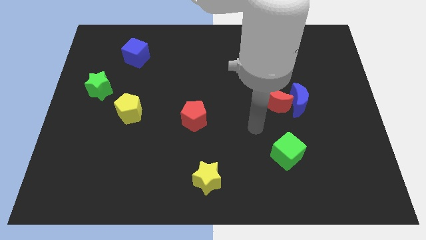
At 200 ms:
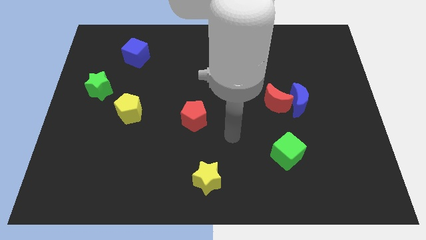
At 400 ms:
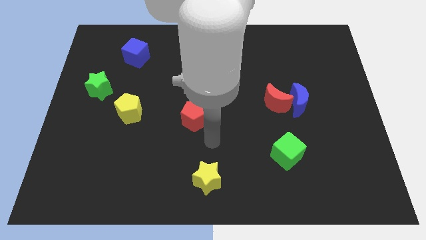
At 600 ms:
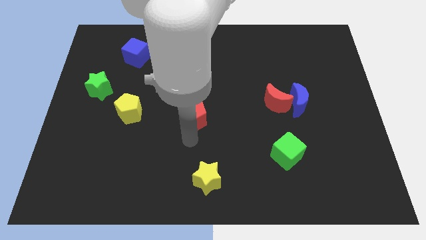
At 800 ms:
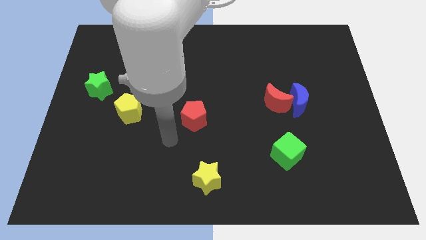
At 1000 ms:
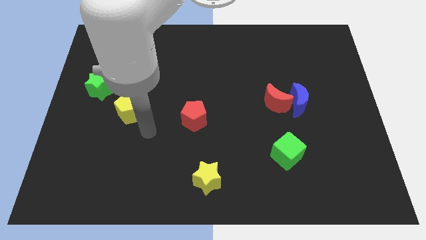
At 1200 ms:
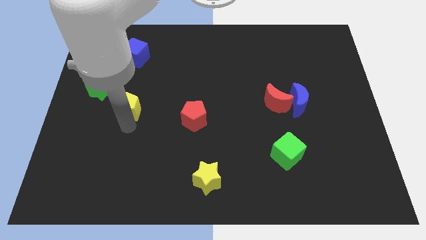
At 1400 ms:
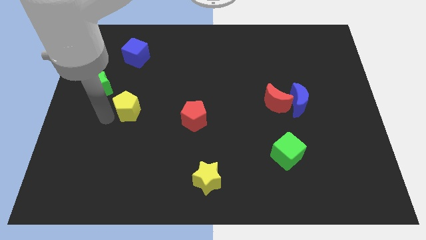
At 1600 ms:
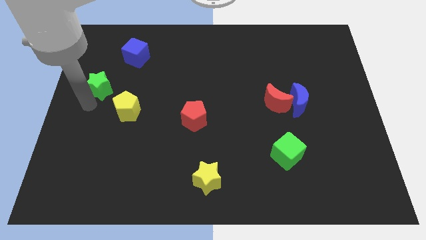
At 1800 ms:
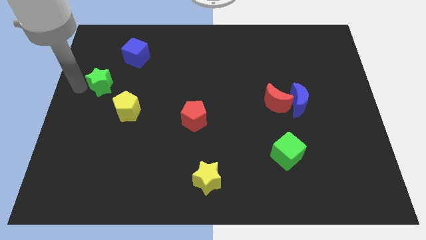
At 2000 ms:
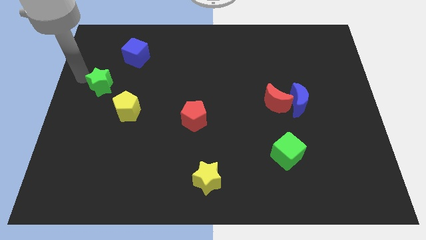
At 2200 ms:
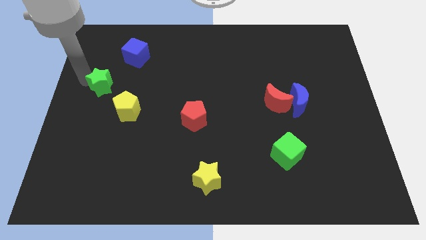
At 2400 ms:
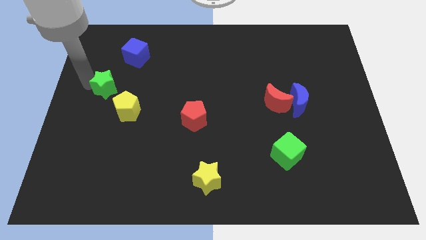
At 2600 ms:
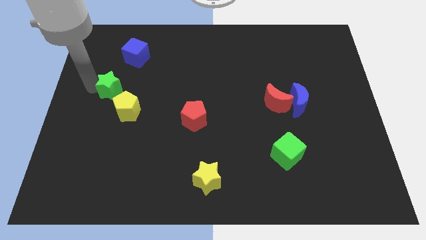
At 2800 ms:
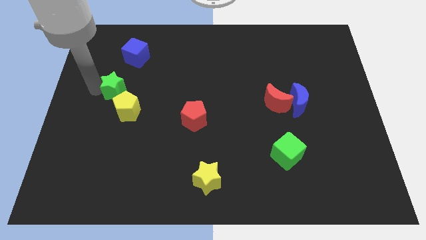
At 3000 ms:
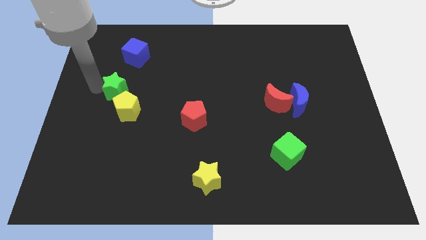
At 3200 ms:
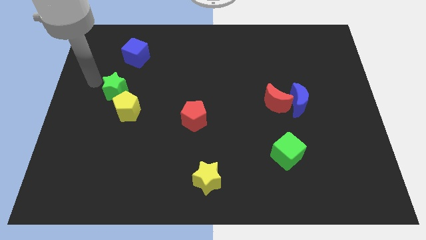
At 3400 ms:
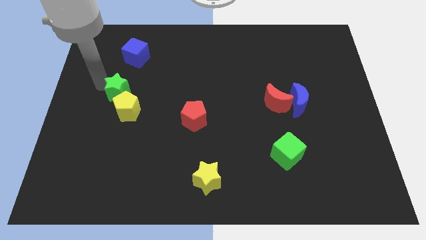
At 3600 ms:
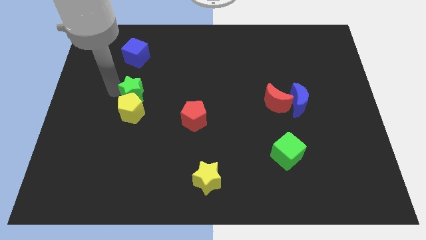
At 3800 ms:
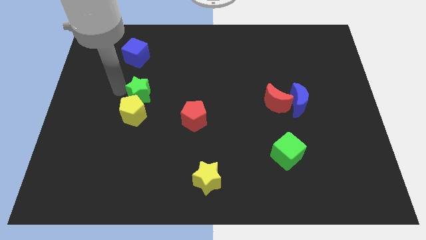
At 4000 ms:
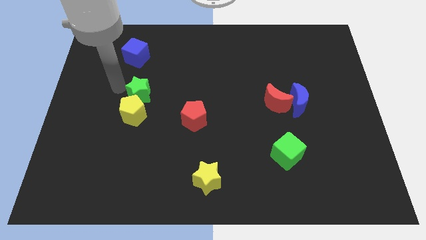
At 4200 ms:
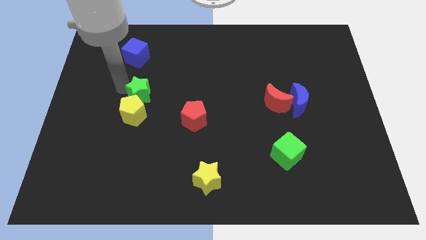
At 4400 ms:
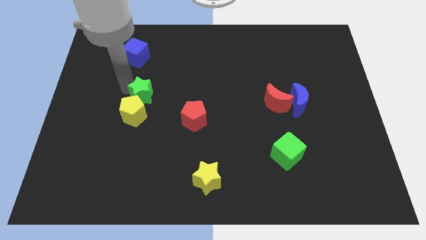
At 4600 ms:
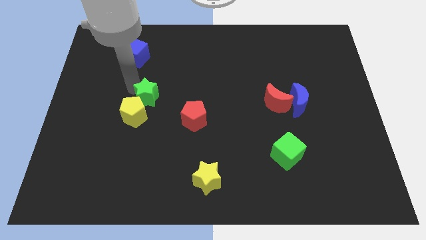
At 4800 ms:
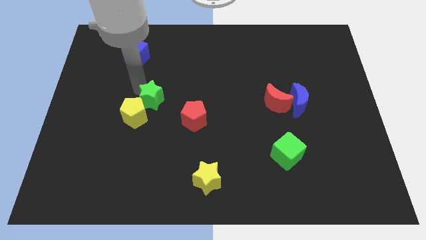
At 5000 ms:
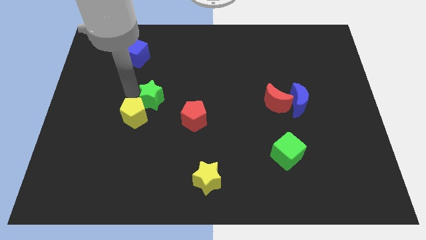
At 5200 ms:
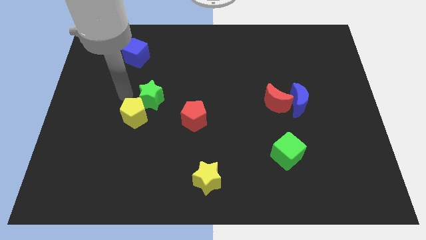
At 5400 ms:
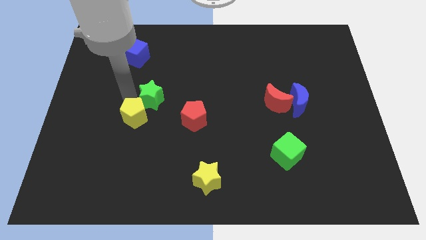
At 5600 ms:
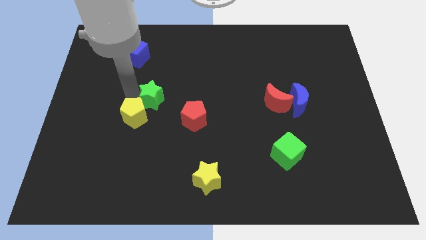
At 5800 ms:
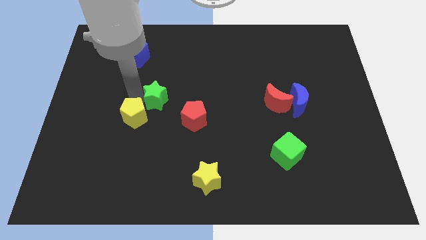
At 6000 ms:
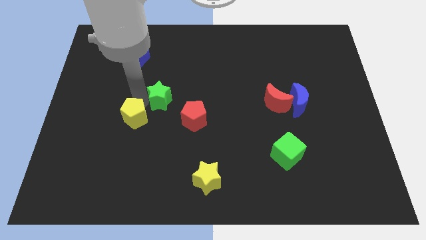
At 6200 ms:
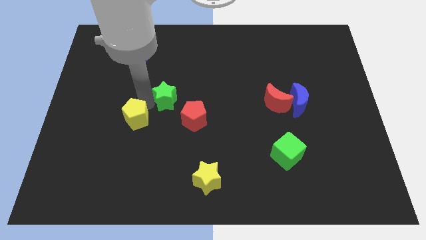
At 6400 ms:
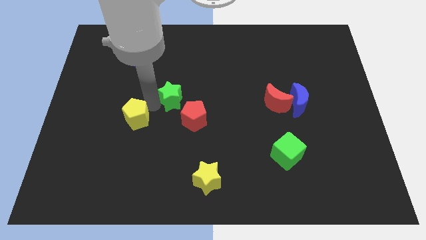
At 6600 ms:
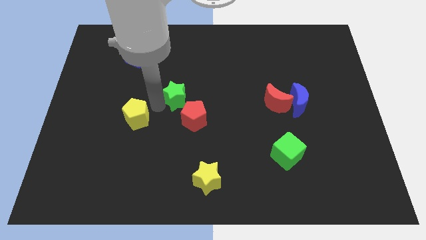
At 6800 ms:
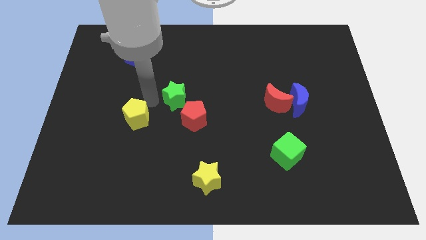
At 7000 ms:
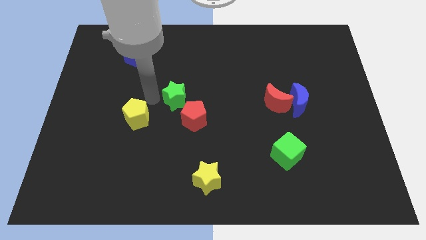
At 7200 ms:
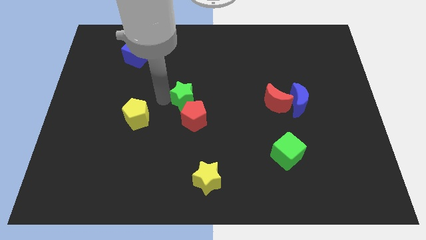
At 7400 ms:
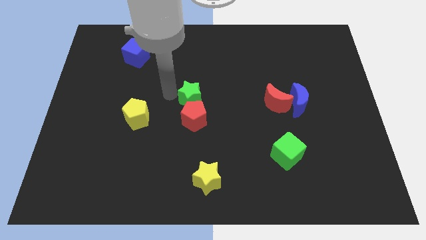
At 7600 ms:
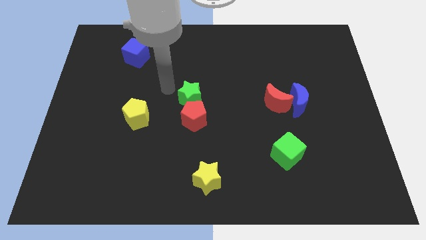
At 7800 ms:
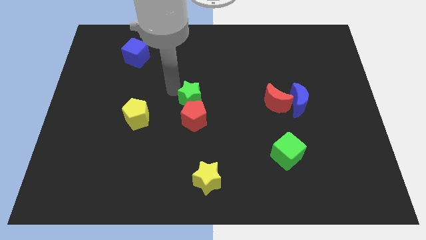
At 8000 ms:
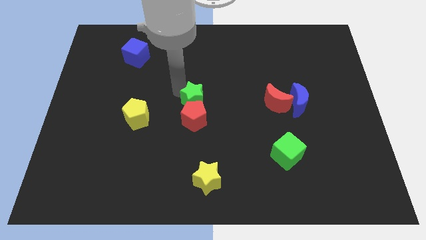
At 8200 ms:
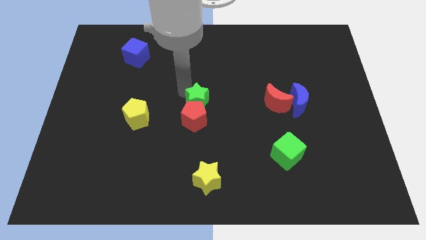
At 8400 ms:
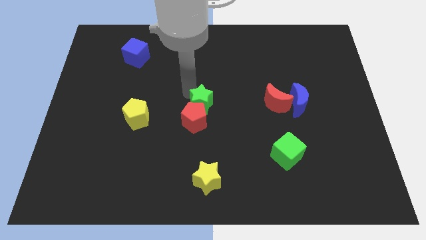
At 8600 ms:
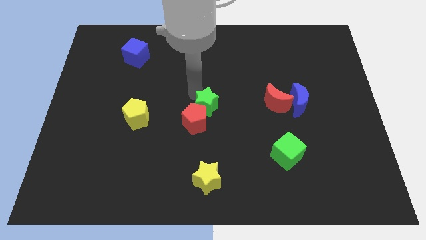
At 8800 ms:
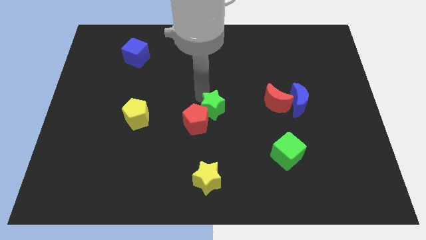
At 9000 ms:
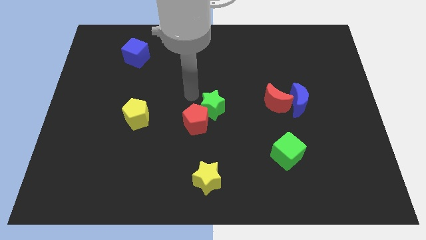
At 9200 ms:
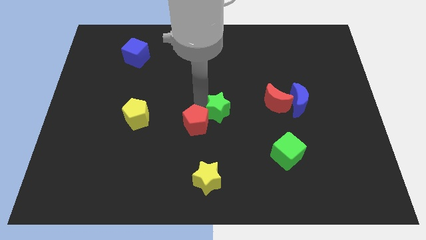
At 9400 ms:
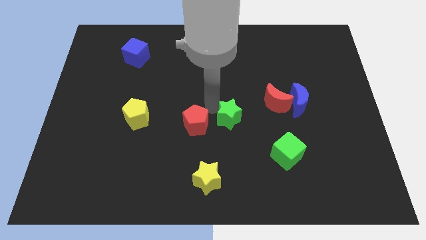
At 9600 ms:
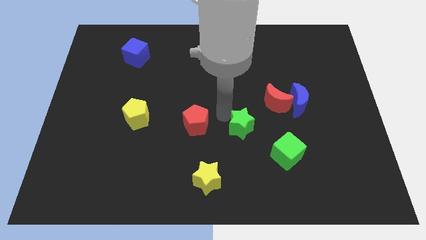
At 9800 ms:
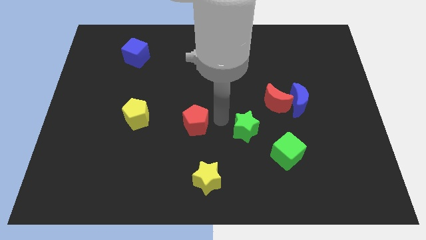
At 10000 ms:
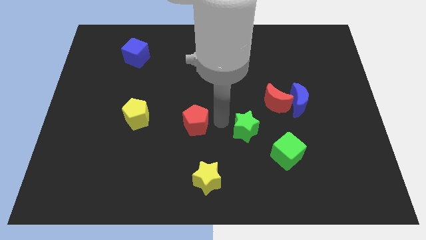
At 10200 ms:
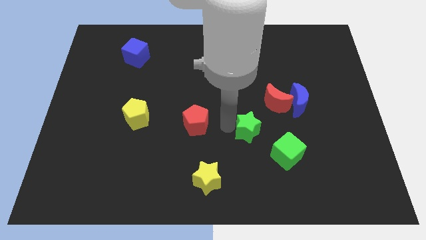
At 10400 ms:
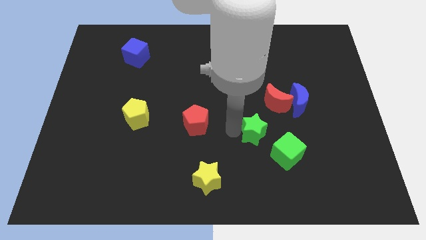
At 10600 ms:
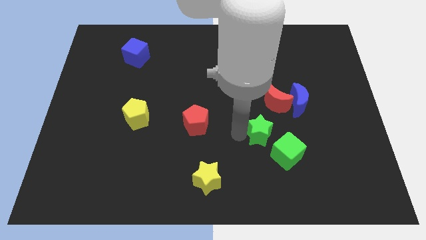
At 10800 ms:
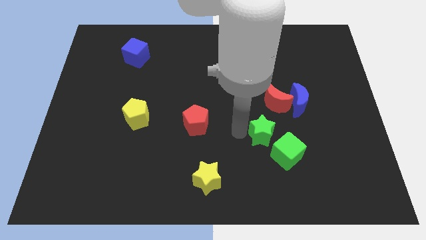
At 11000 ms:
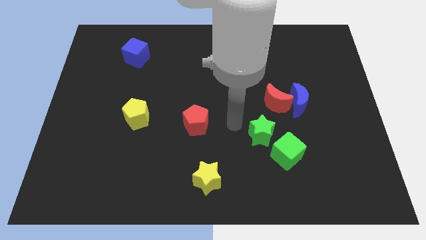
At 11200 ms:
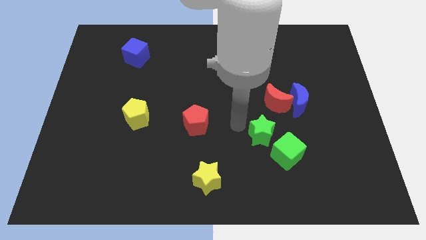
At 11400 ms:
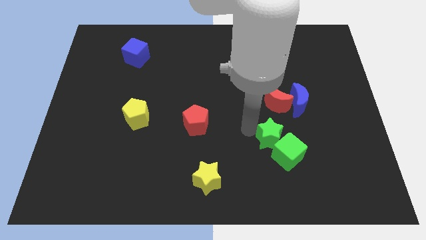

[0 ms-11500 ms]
move the green star close to the green cube

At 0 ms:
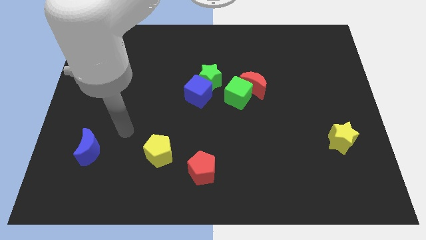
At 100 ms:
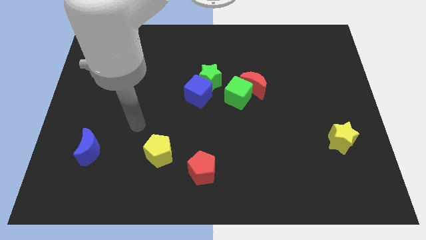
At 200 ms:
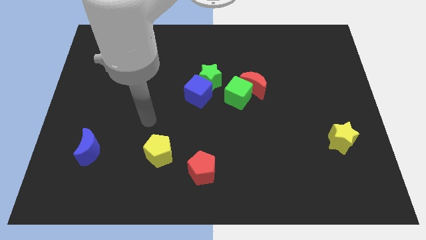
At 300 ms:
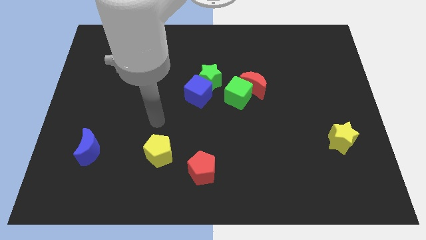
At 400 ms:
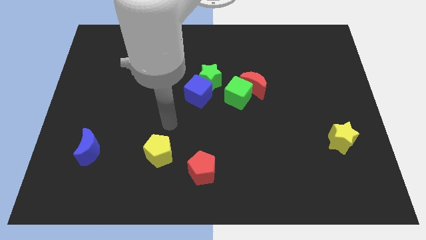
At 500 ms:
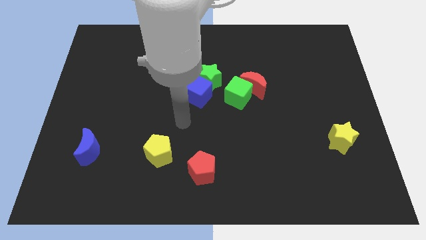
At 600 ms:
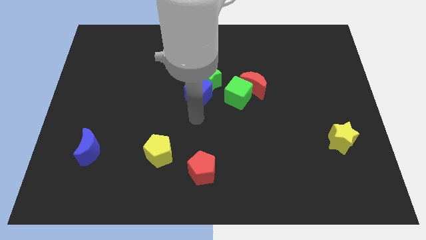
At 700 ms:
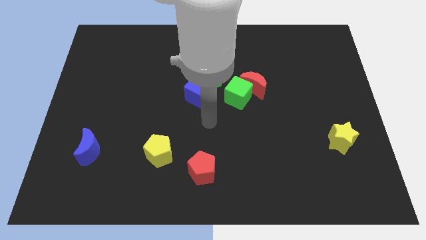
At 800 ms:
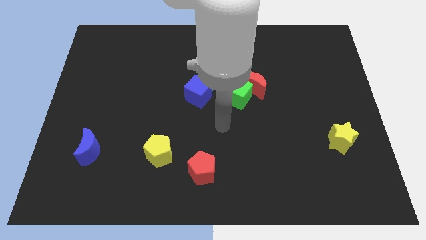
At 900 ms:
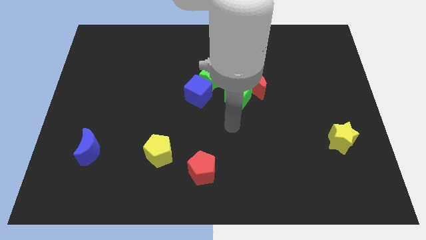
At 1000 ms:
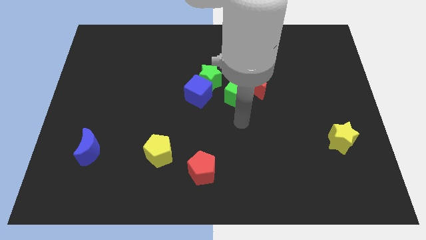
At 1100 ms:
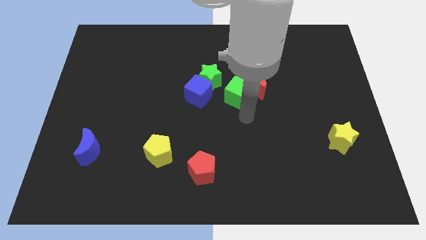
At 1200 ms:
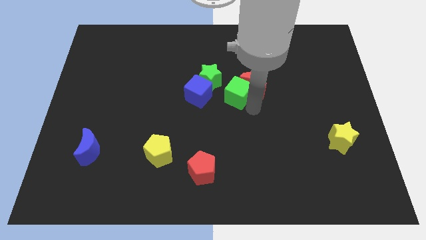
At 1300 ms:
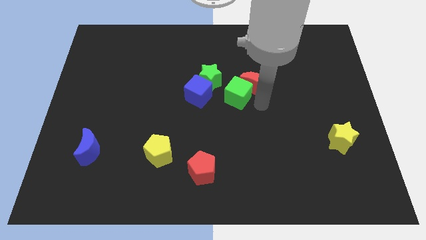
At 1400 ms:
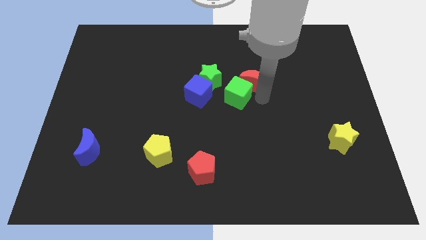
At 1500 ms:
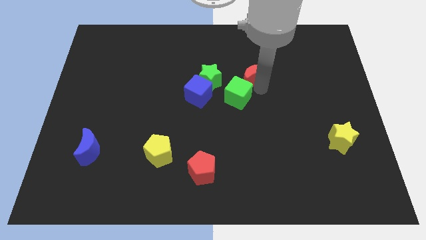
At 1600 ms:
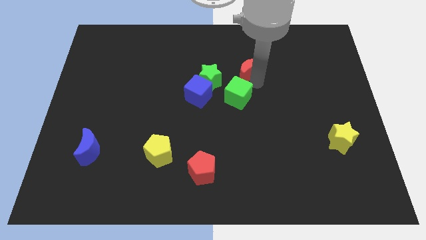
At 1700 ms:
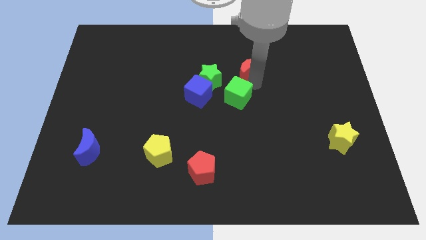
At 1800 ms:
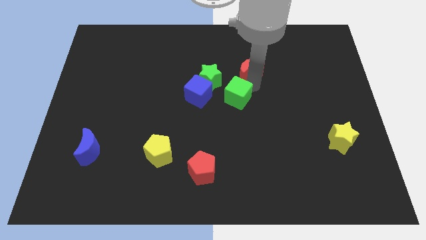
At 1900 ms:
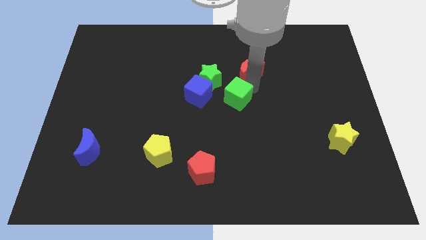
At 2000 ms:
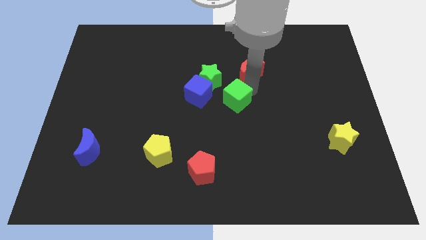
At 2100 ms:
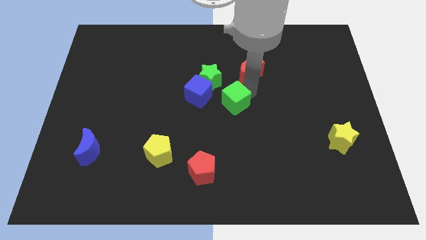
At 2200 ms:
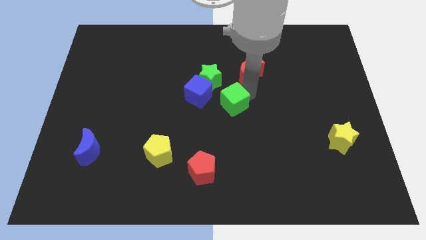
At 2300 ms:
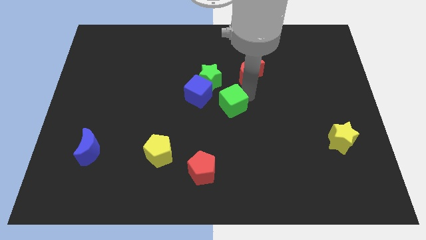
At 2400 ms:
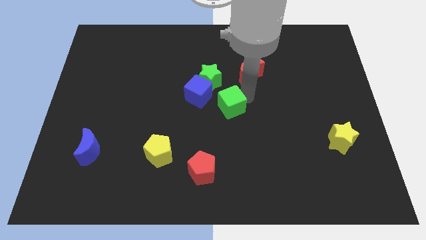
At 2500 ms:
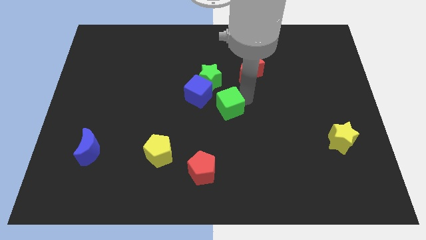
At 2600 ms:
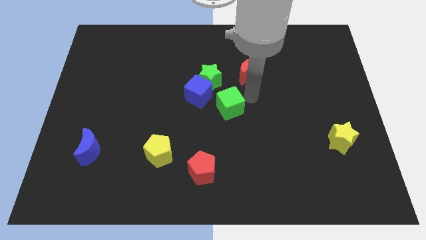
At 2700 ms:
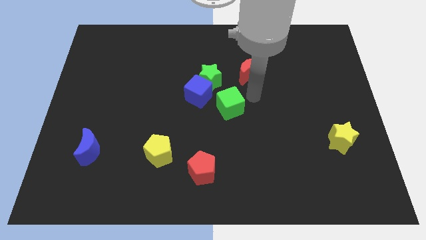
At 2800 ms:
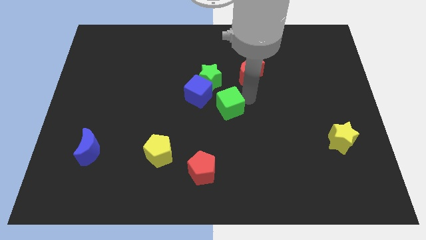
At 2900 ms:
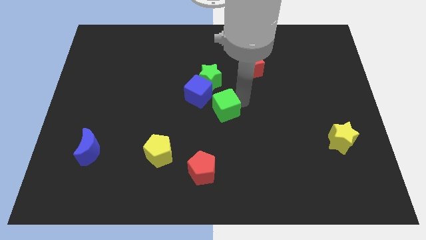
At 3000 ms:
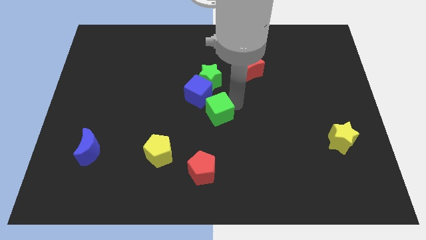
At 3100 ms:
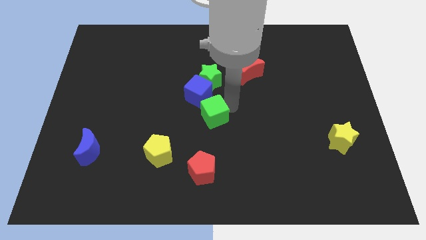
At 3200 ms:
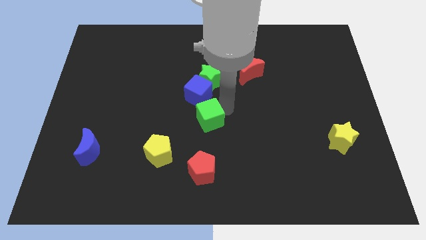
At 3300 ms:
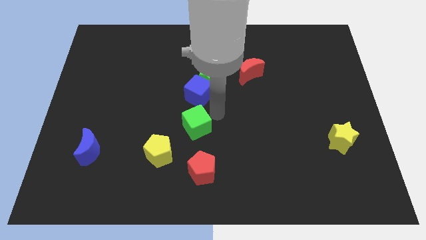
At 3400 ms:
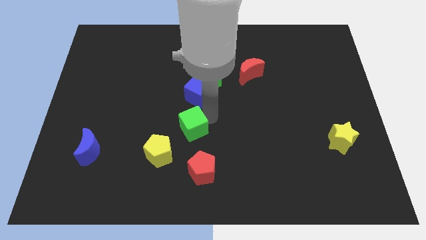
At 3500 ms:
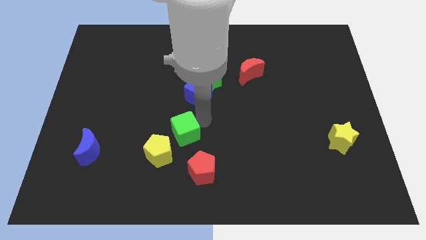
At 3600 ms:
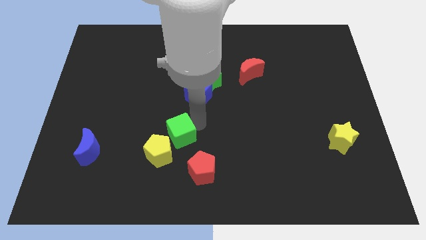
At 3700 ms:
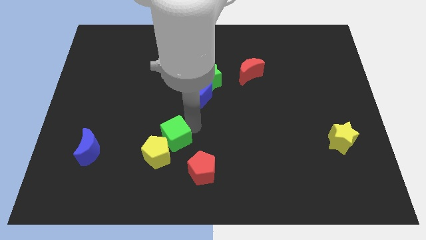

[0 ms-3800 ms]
slide the green cube towards the yellow pentagon
